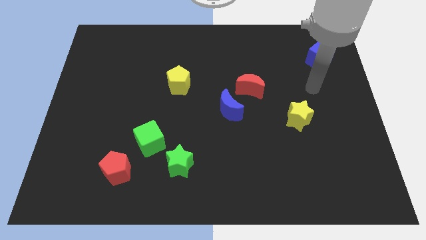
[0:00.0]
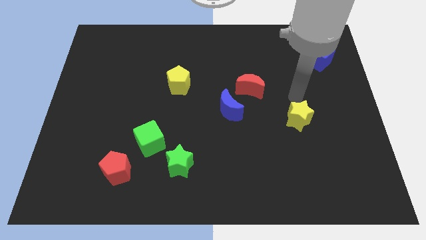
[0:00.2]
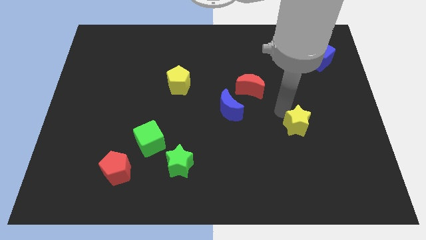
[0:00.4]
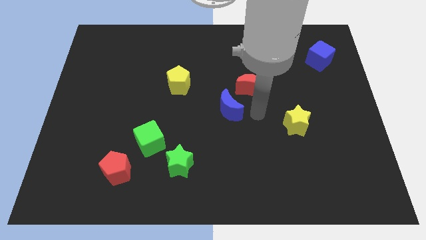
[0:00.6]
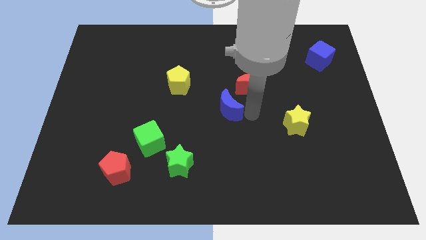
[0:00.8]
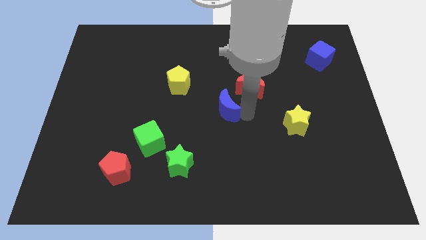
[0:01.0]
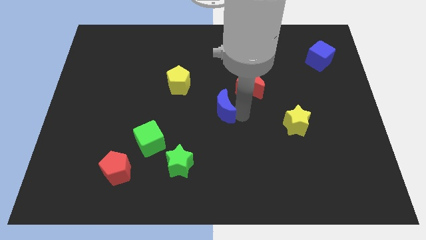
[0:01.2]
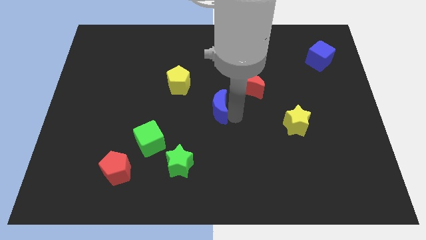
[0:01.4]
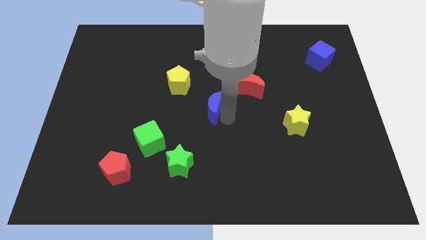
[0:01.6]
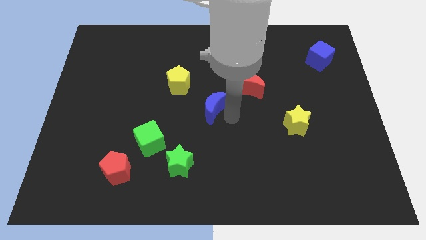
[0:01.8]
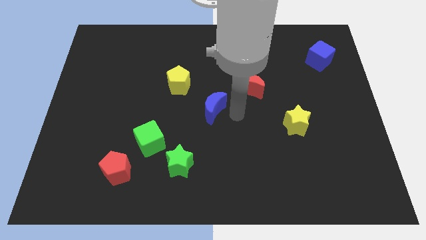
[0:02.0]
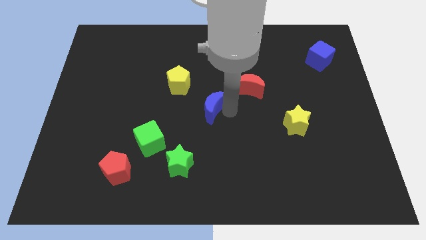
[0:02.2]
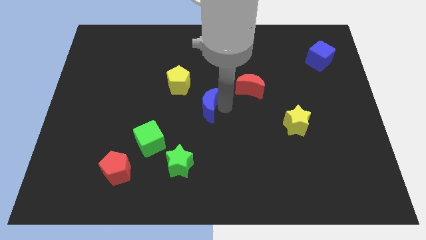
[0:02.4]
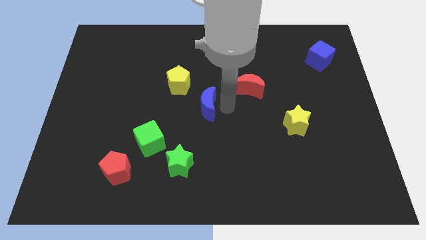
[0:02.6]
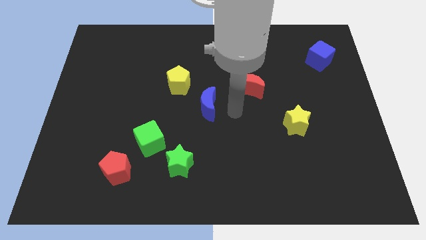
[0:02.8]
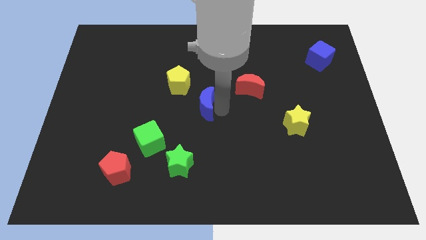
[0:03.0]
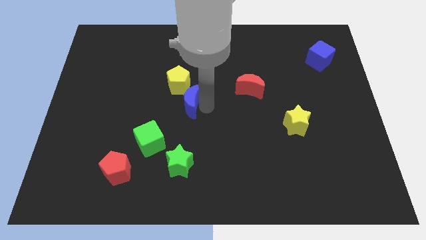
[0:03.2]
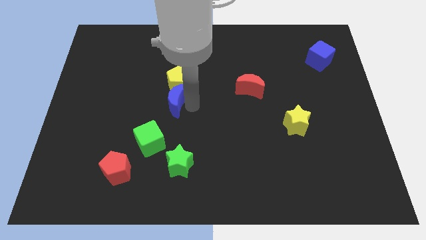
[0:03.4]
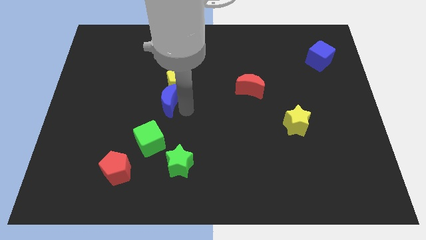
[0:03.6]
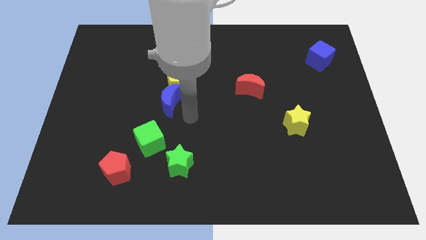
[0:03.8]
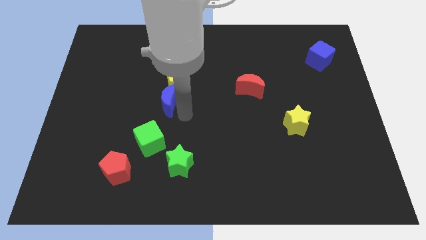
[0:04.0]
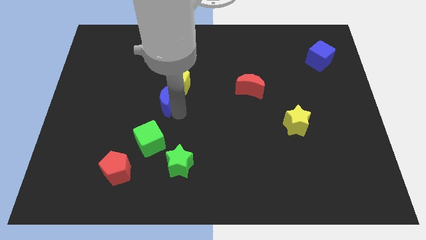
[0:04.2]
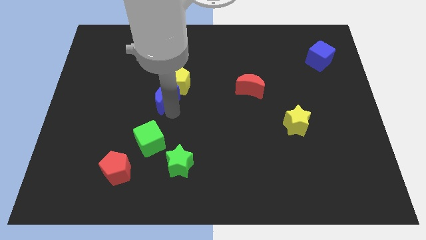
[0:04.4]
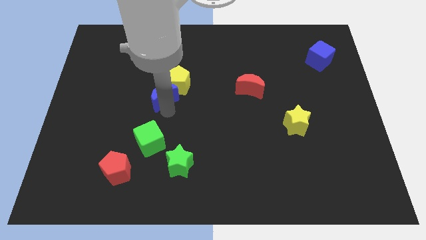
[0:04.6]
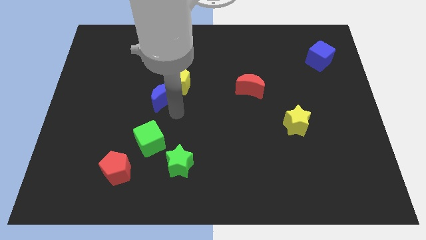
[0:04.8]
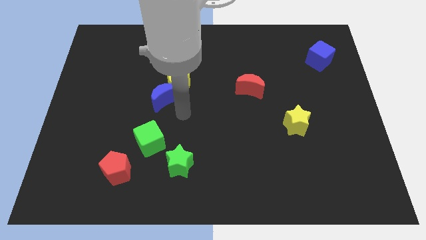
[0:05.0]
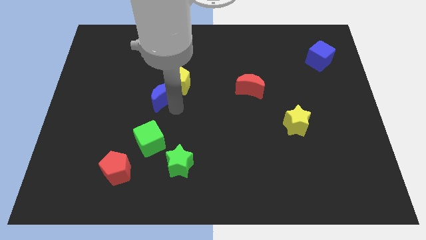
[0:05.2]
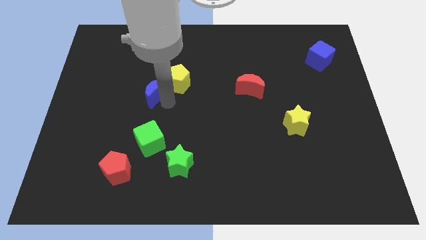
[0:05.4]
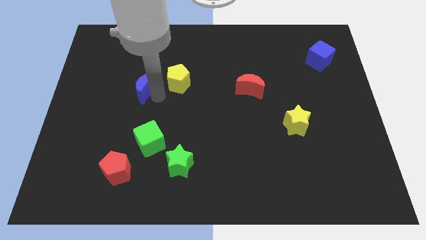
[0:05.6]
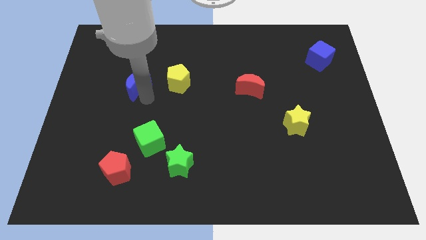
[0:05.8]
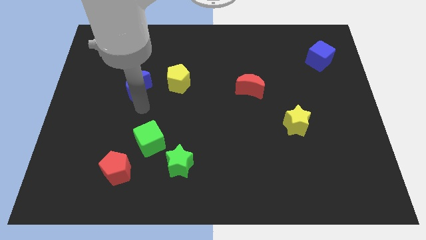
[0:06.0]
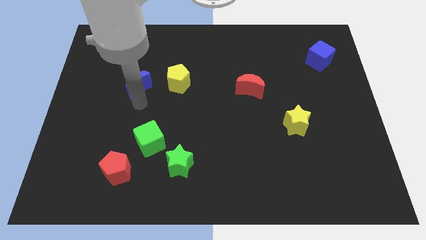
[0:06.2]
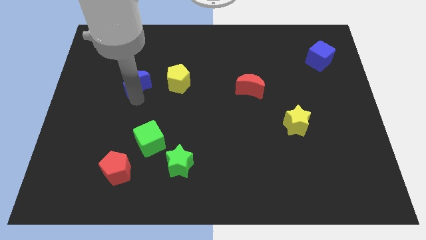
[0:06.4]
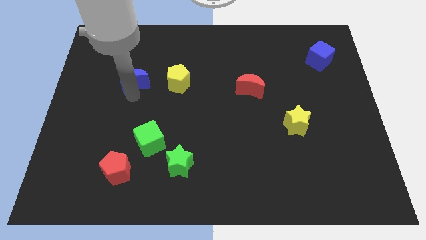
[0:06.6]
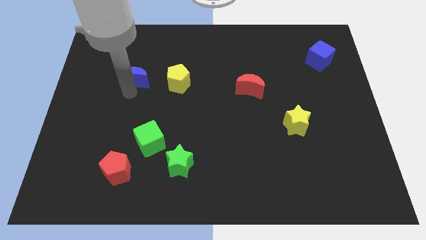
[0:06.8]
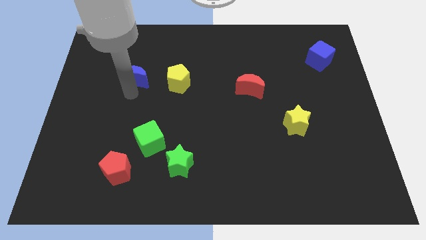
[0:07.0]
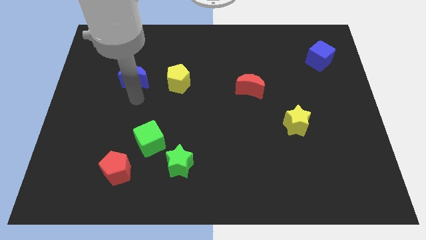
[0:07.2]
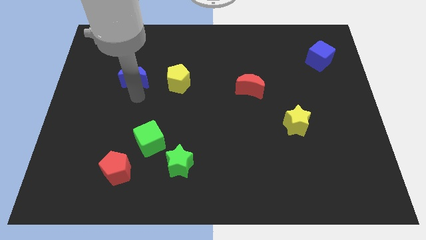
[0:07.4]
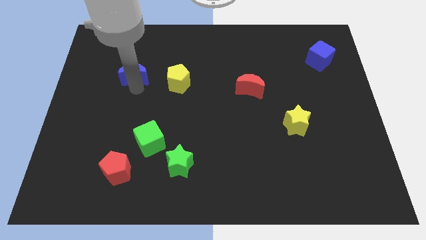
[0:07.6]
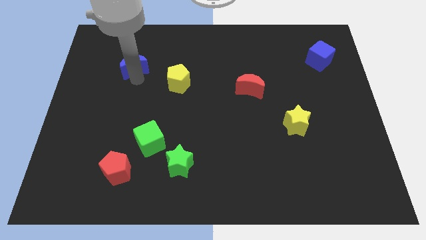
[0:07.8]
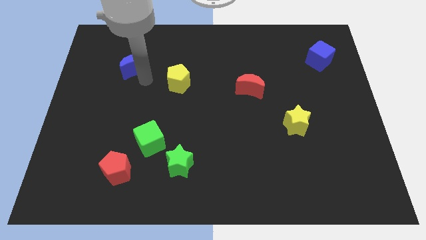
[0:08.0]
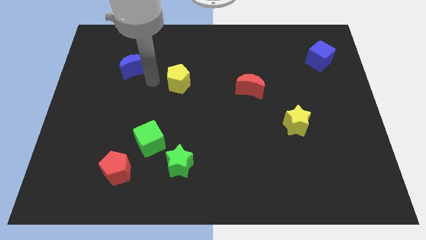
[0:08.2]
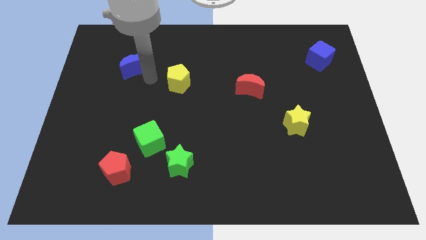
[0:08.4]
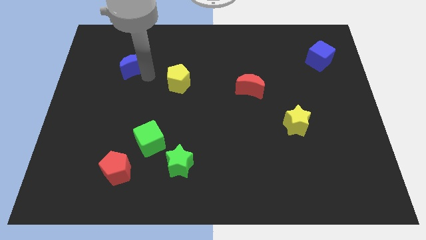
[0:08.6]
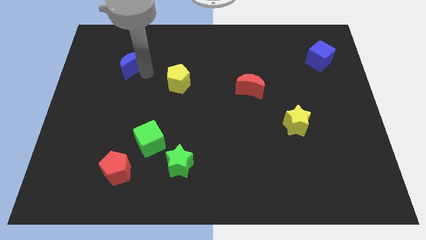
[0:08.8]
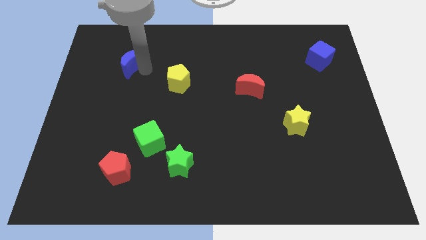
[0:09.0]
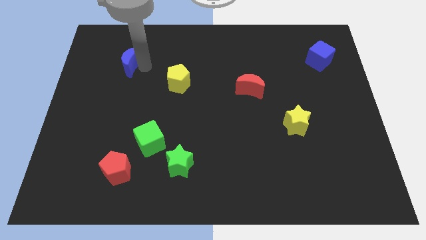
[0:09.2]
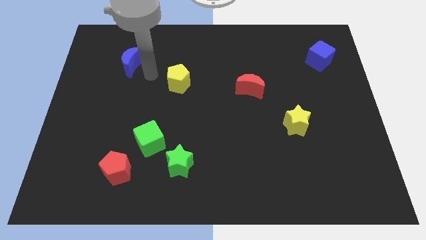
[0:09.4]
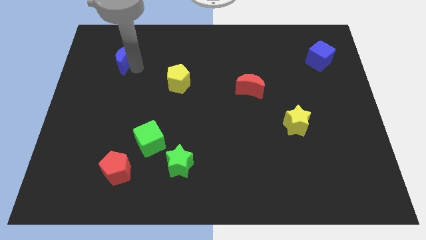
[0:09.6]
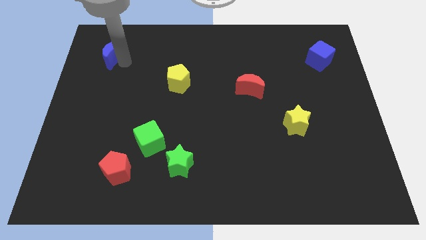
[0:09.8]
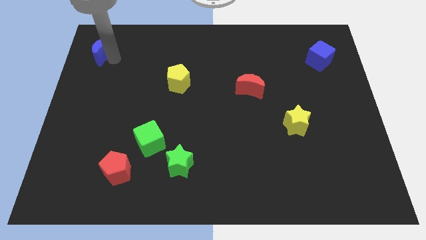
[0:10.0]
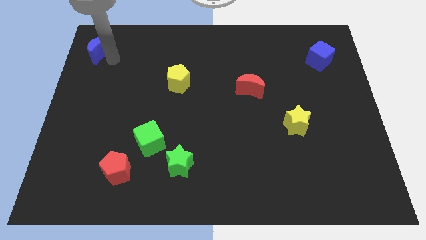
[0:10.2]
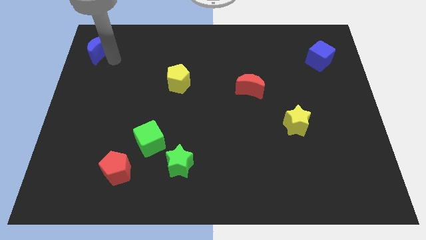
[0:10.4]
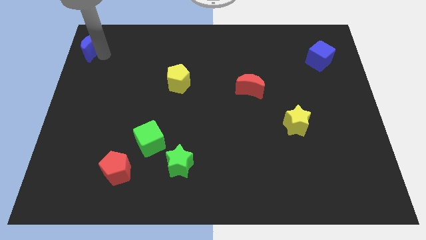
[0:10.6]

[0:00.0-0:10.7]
slide the blue moon to the top left of the board
